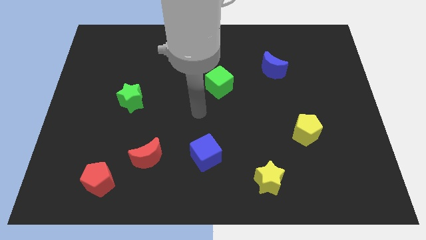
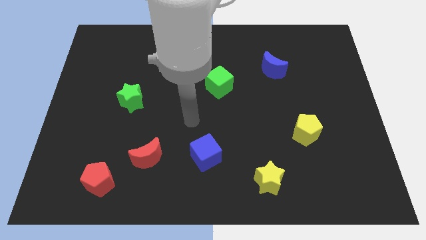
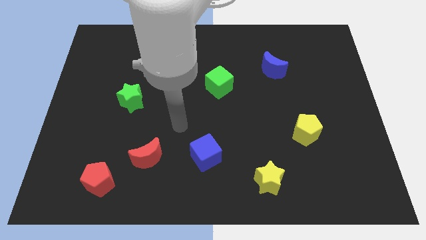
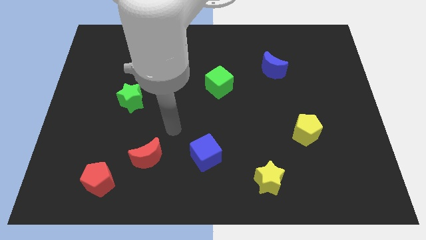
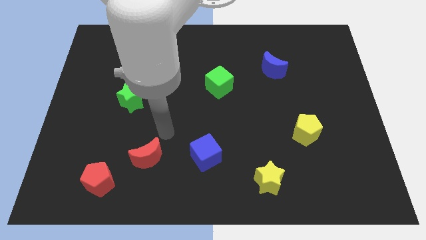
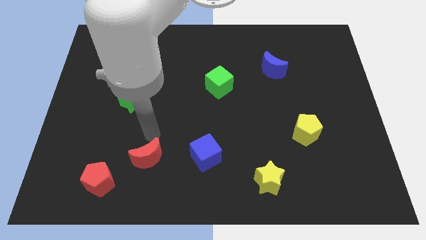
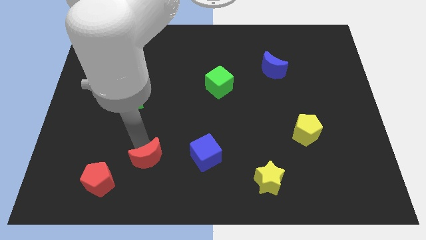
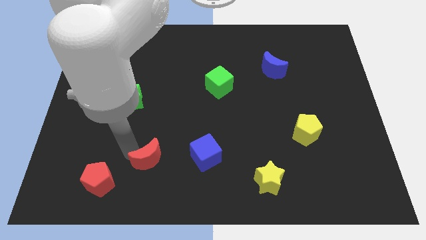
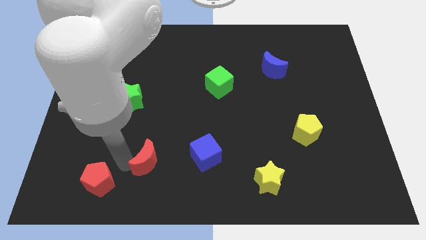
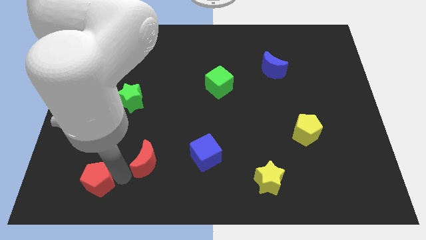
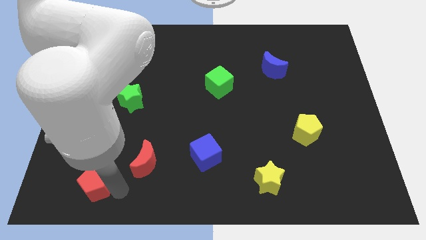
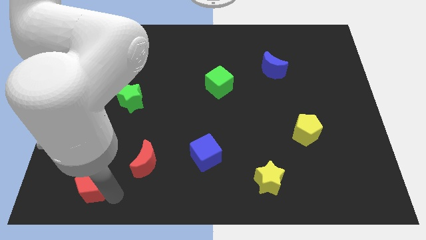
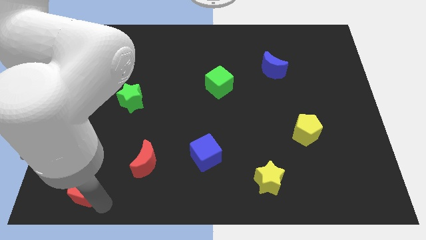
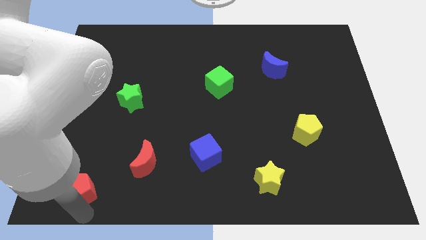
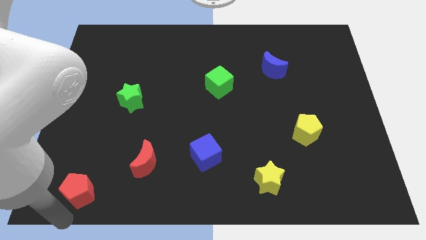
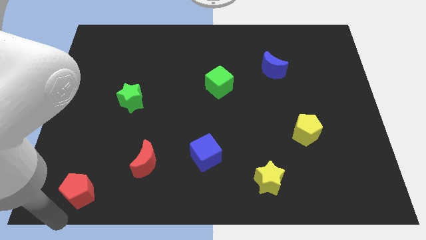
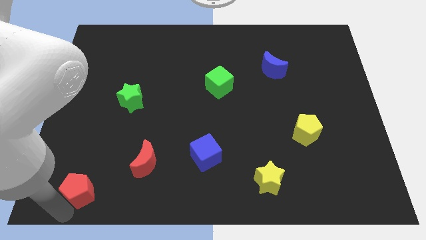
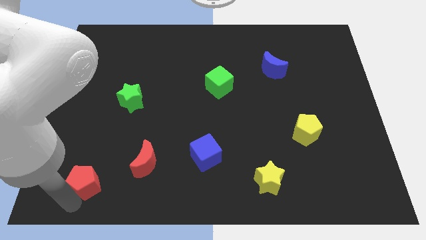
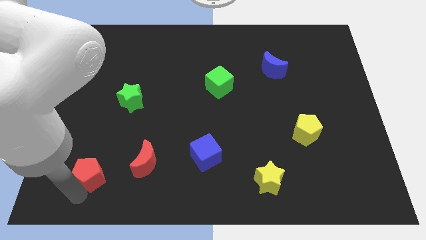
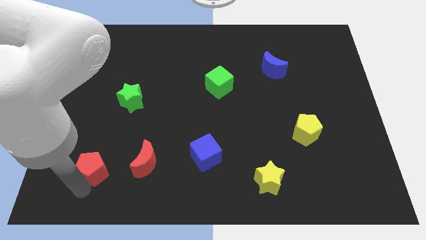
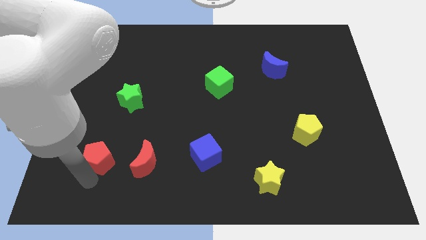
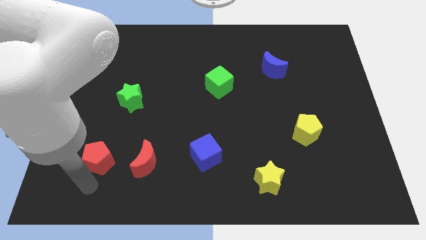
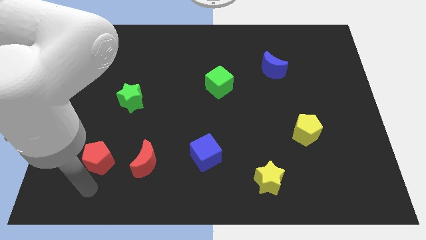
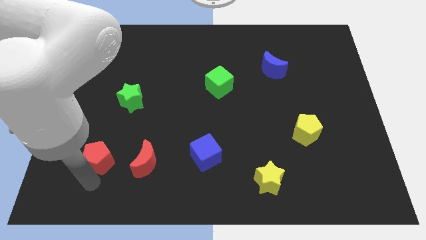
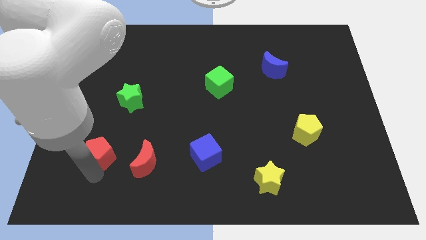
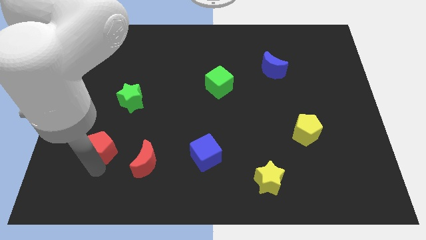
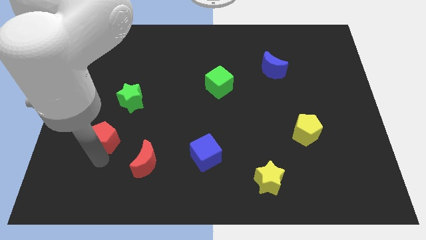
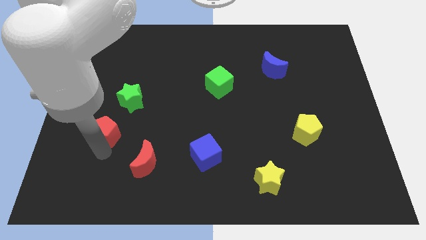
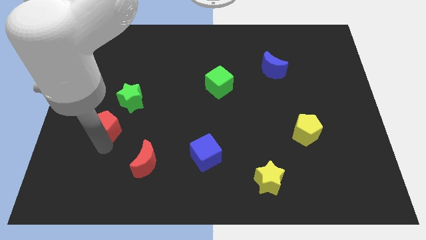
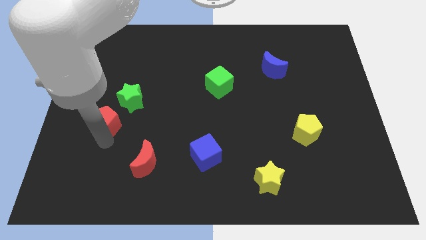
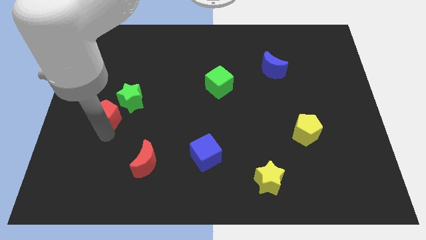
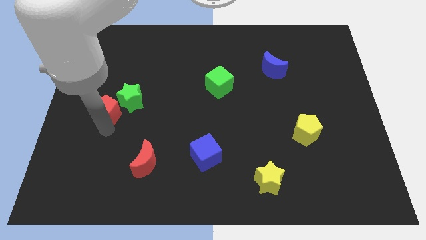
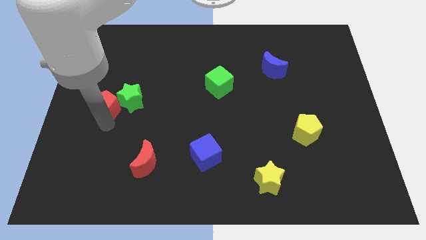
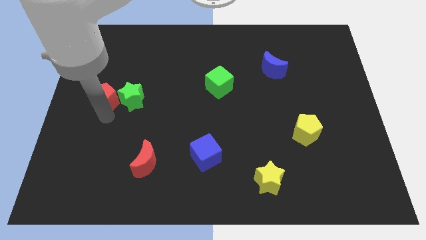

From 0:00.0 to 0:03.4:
push the red pentagon up

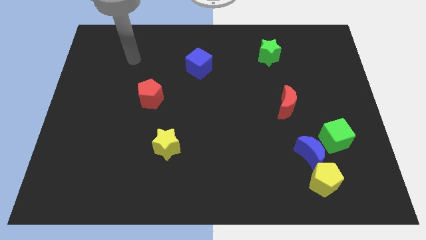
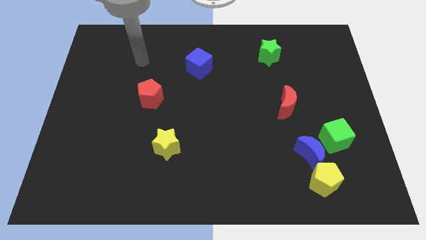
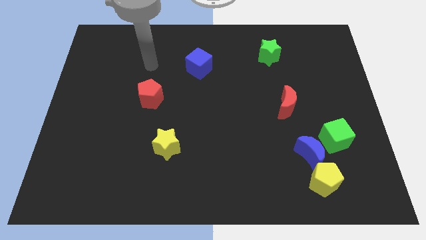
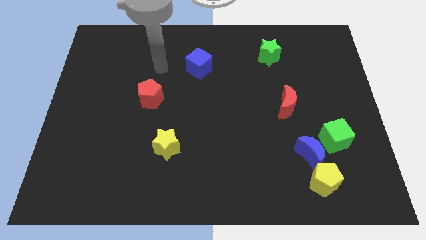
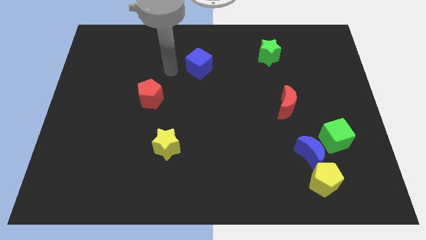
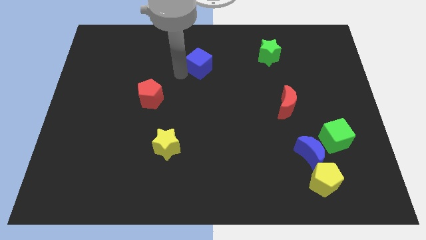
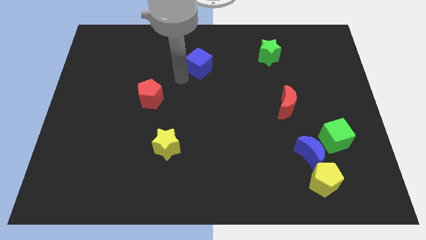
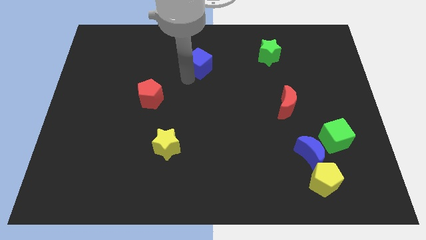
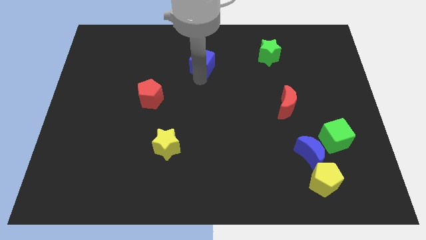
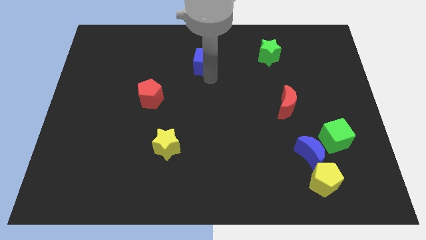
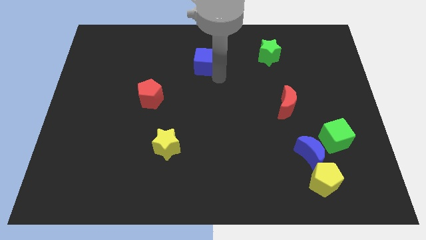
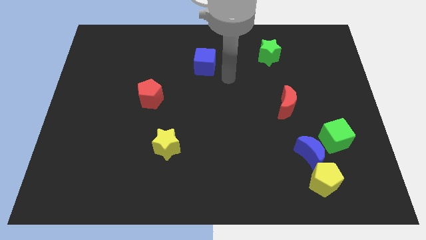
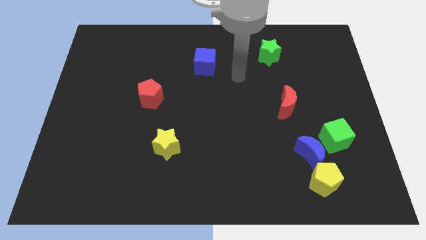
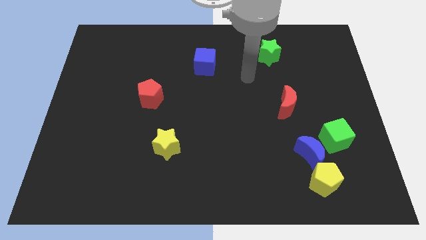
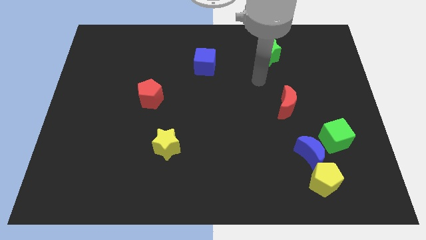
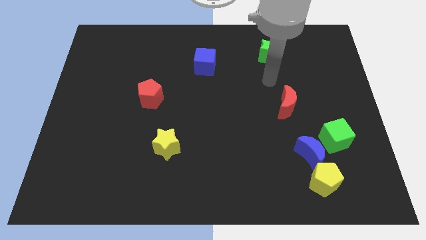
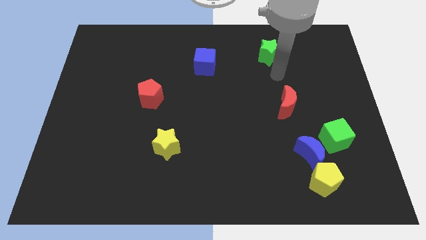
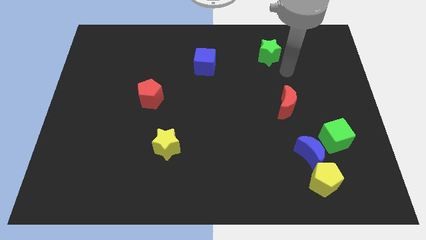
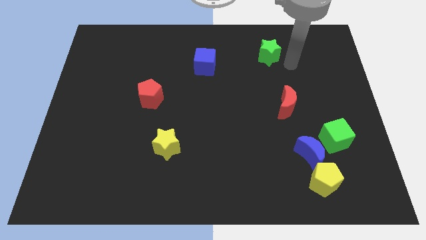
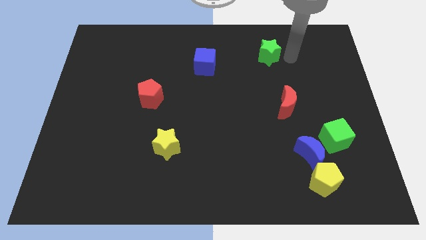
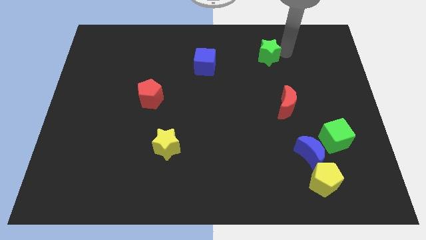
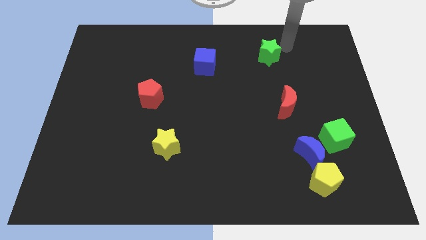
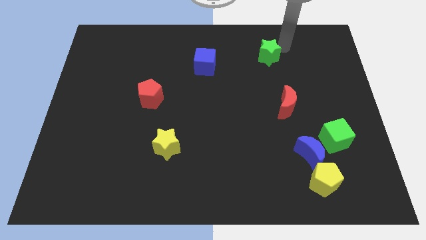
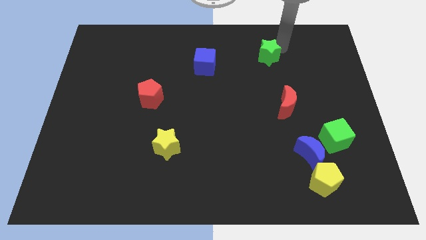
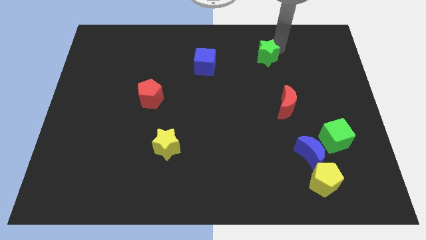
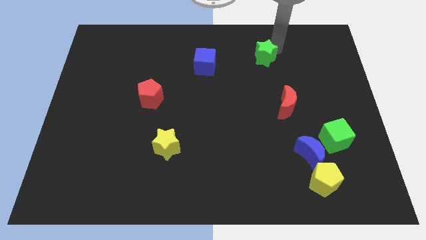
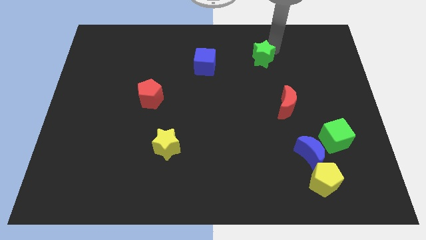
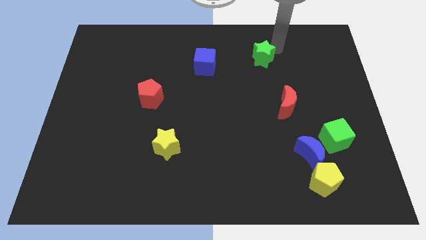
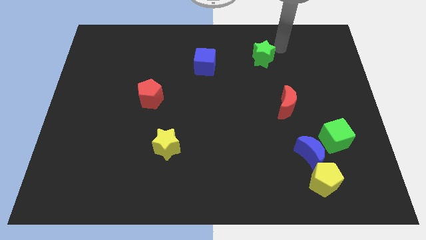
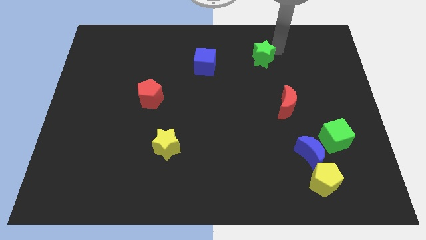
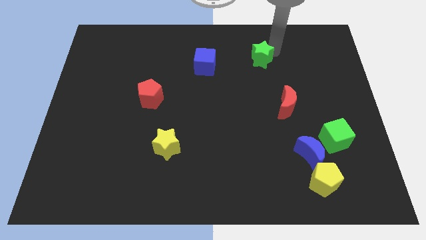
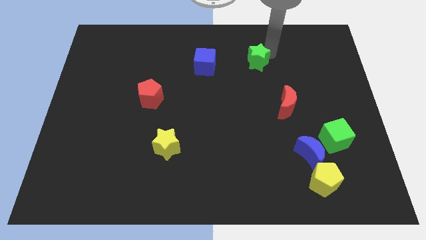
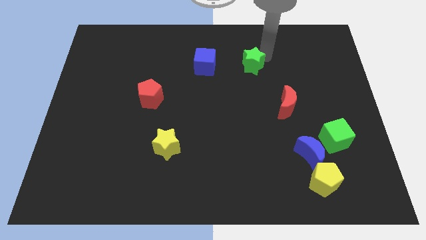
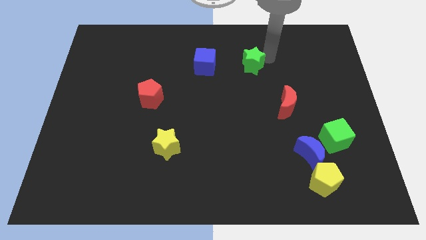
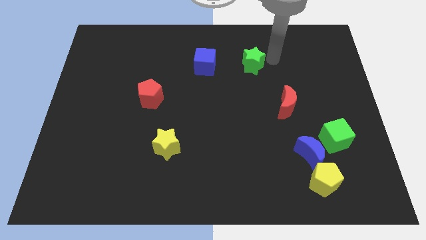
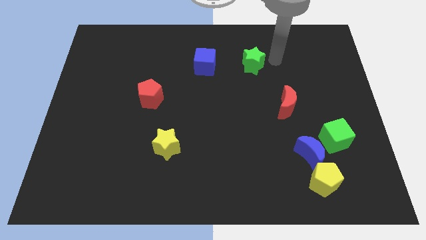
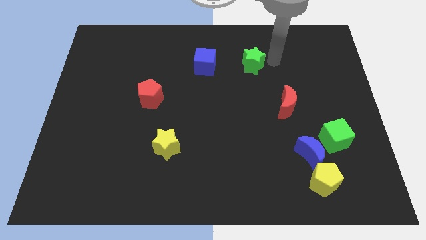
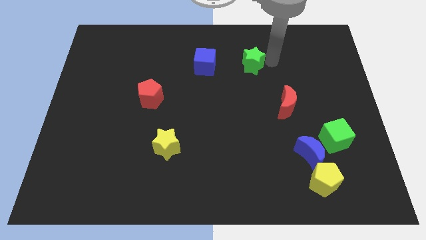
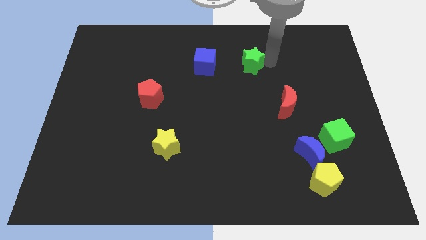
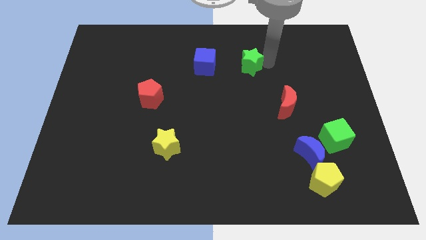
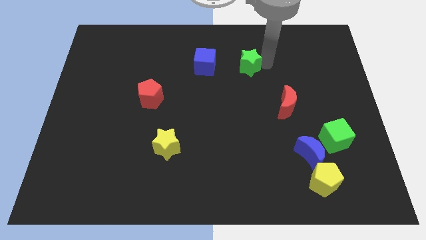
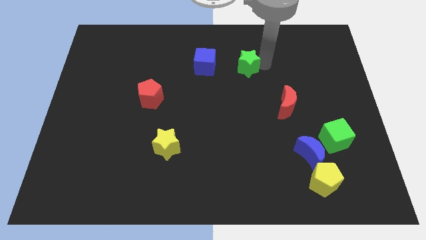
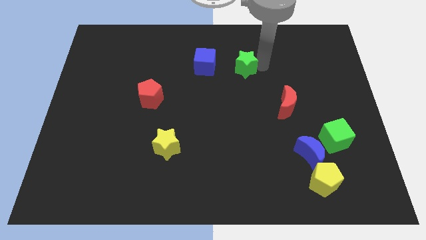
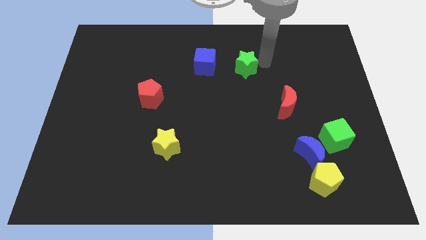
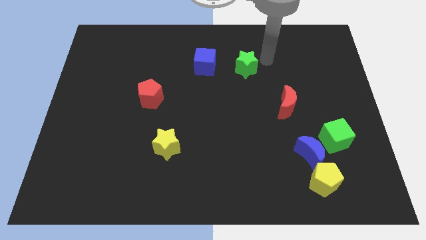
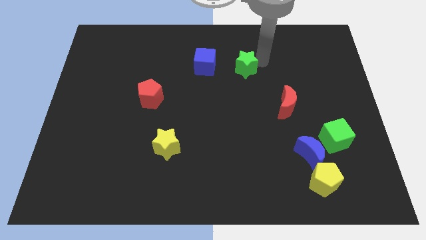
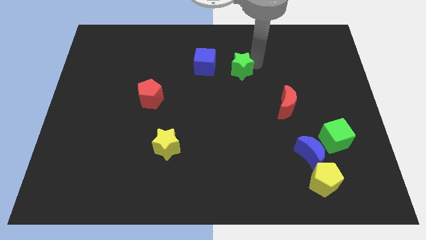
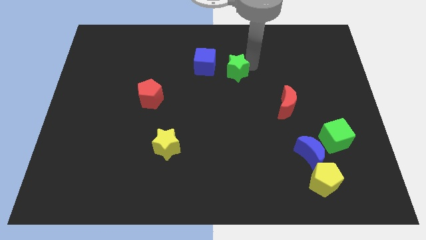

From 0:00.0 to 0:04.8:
slightly slide the green star left
